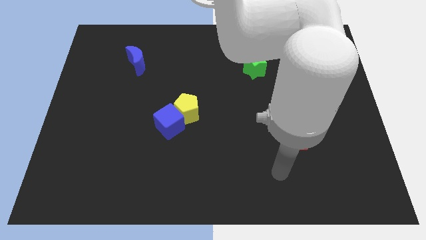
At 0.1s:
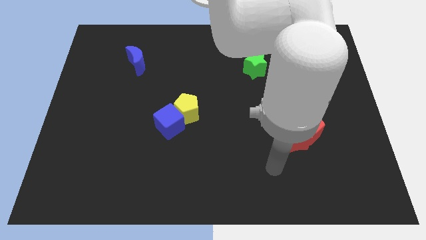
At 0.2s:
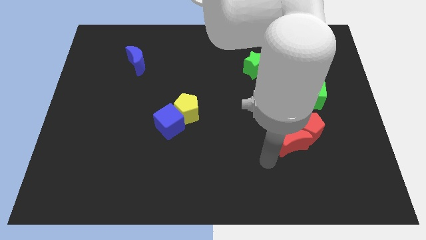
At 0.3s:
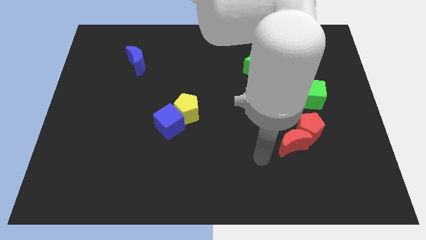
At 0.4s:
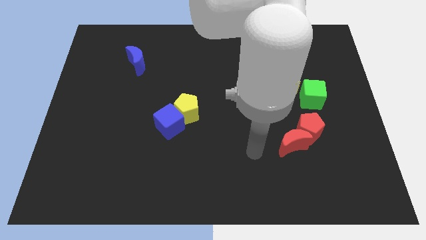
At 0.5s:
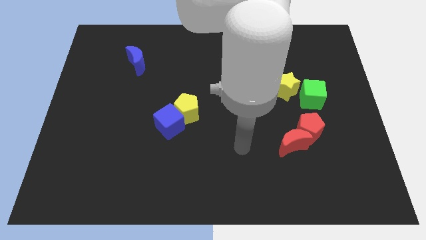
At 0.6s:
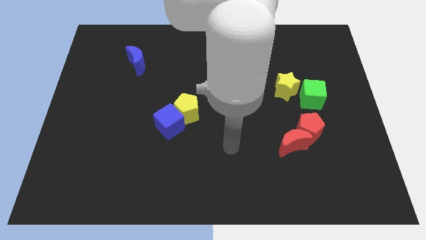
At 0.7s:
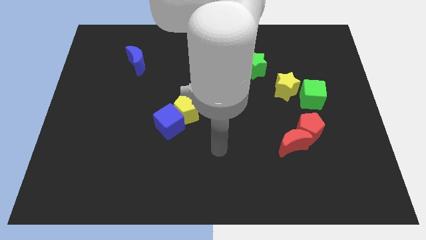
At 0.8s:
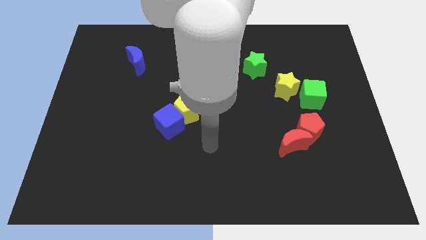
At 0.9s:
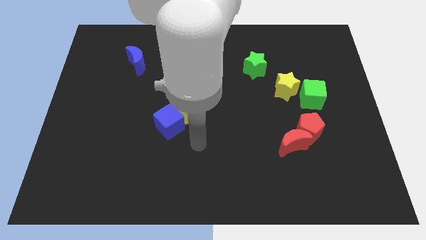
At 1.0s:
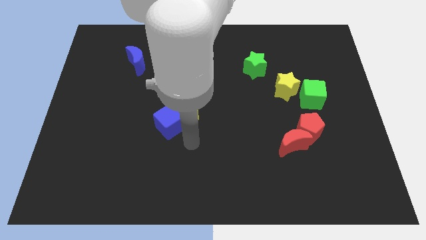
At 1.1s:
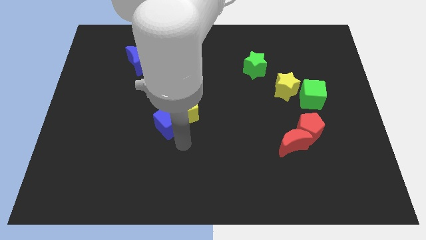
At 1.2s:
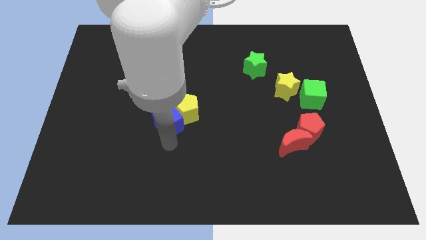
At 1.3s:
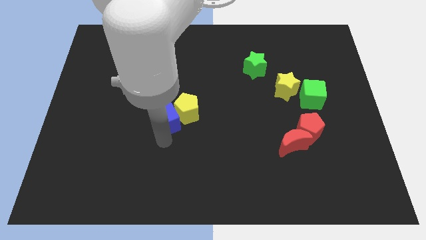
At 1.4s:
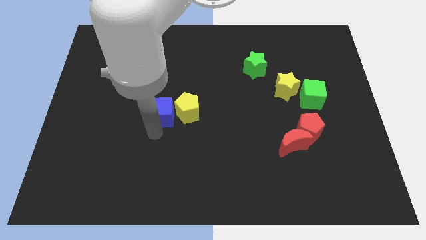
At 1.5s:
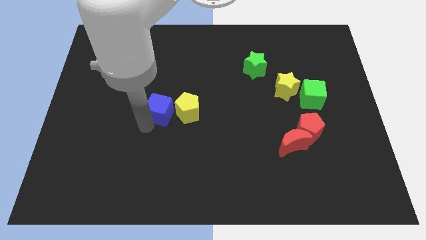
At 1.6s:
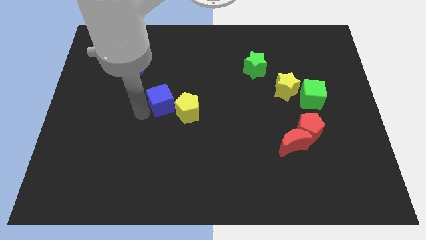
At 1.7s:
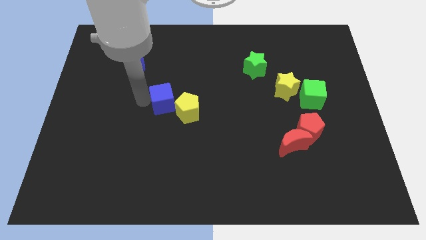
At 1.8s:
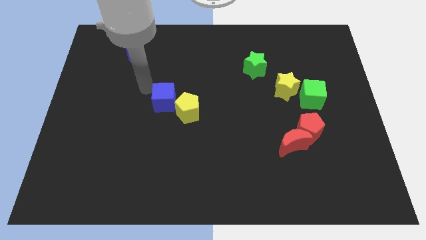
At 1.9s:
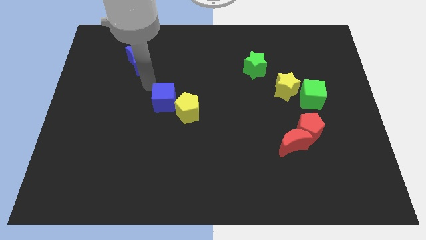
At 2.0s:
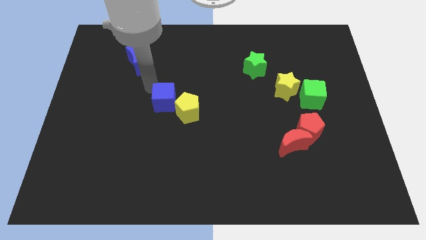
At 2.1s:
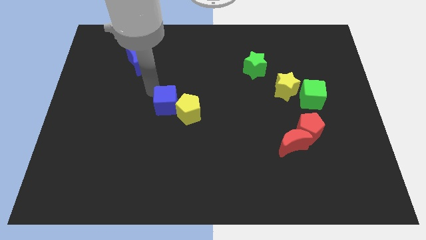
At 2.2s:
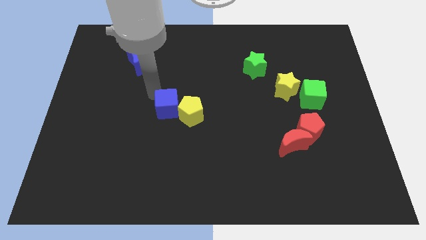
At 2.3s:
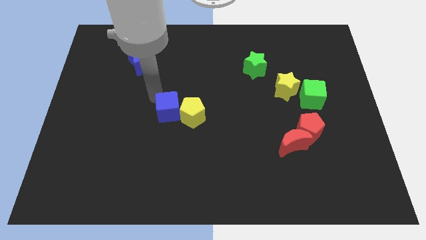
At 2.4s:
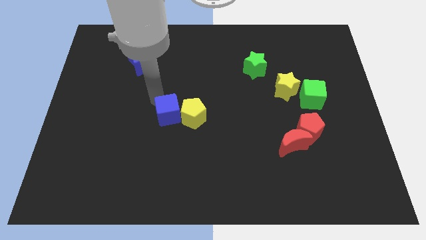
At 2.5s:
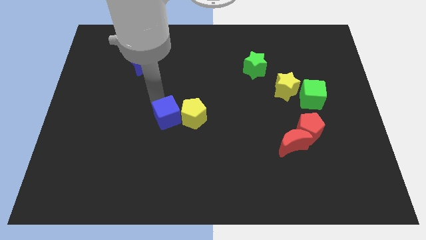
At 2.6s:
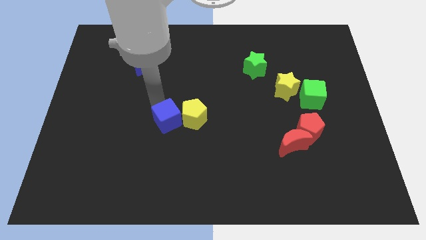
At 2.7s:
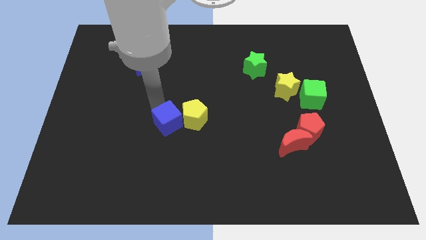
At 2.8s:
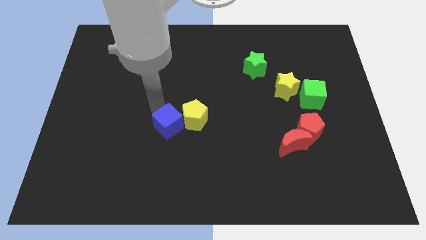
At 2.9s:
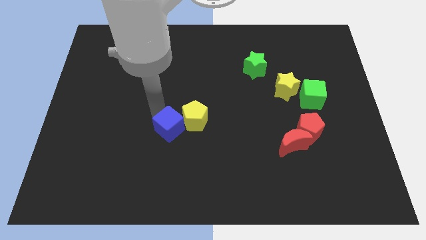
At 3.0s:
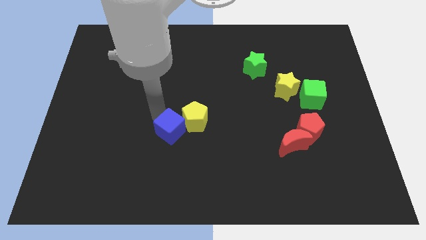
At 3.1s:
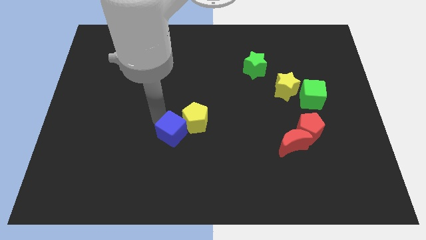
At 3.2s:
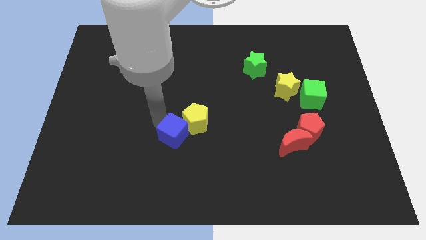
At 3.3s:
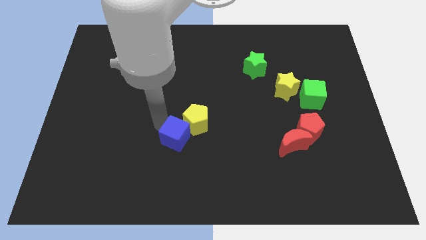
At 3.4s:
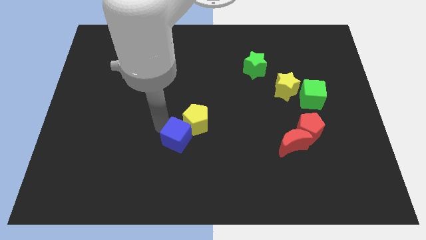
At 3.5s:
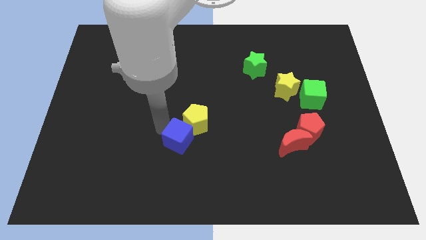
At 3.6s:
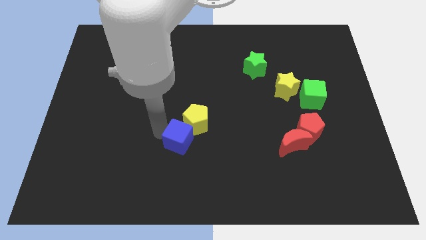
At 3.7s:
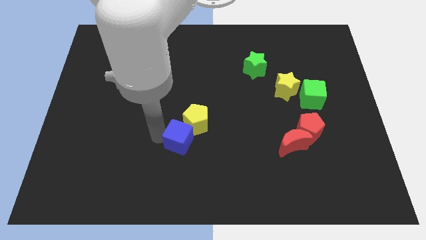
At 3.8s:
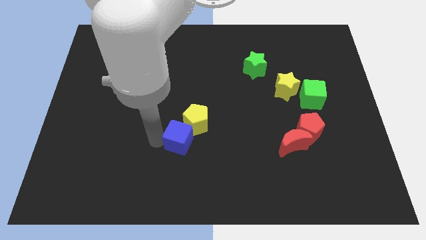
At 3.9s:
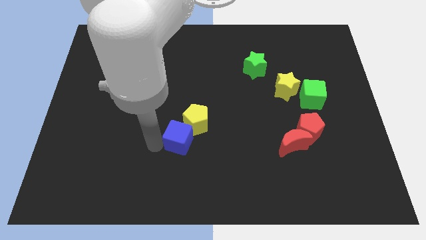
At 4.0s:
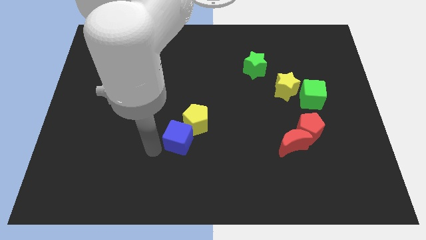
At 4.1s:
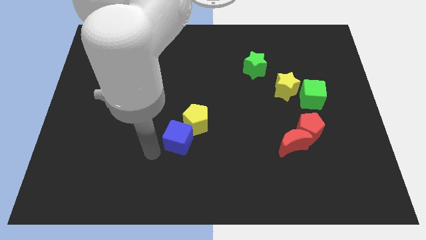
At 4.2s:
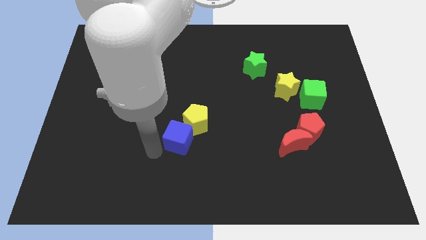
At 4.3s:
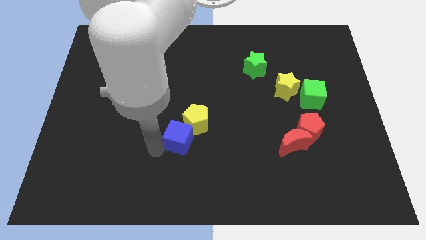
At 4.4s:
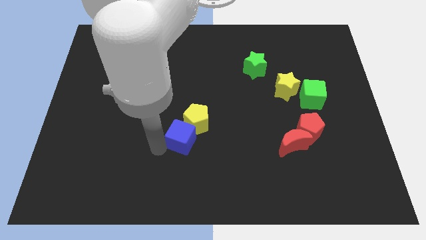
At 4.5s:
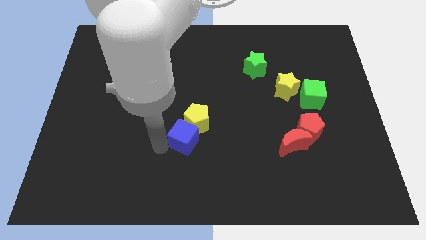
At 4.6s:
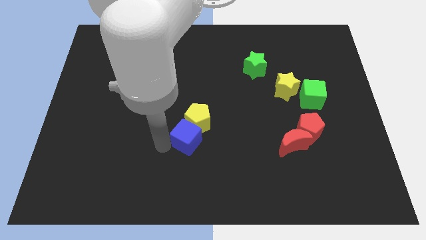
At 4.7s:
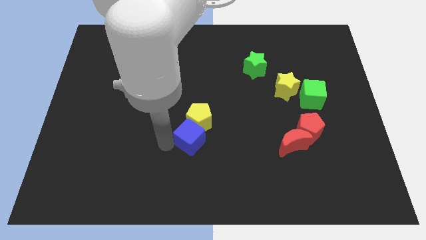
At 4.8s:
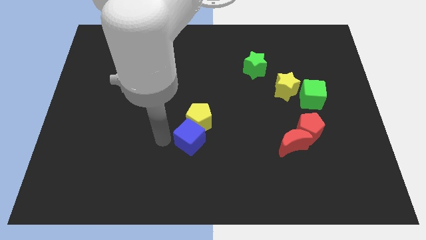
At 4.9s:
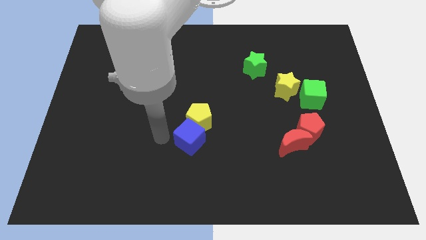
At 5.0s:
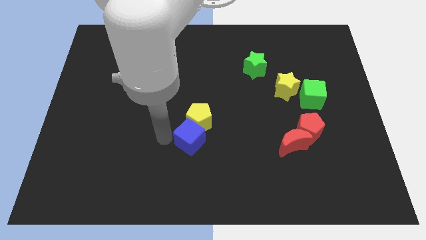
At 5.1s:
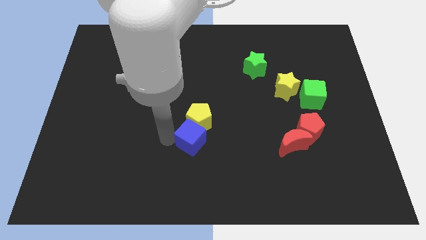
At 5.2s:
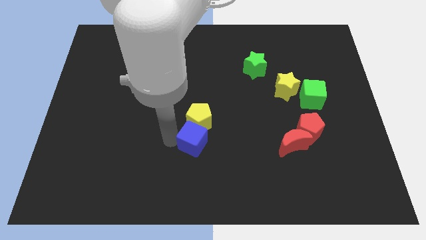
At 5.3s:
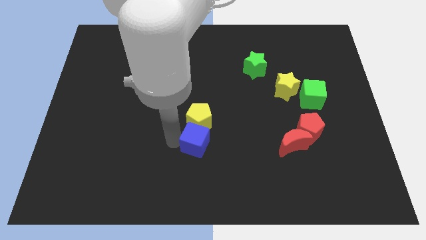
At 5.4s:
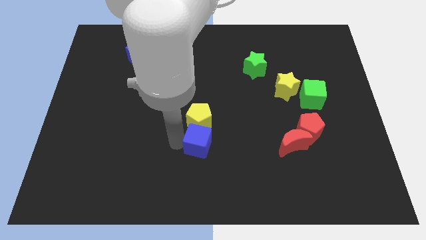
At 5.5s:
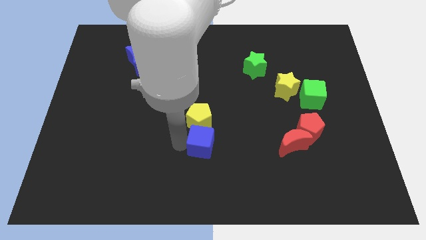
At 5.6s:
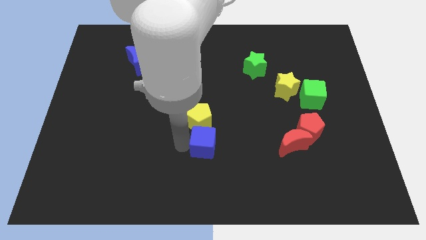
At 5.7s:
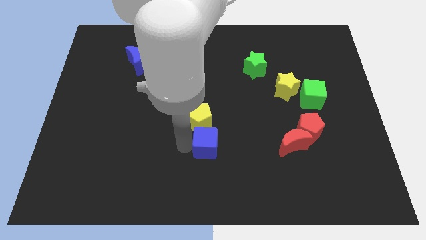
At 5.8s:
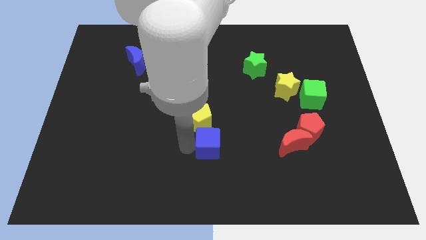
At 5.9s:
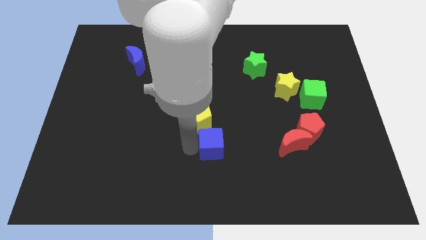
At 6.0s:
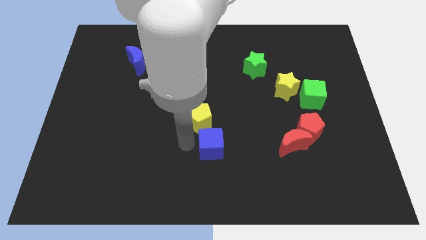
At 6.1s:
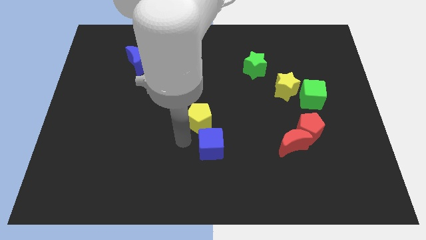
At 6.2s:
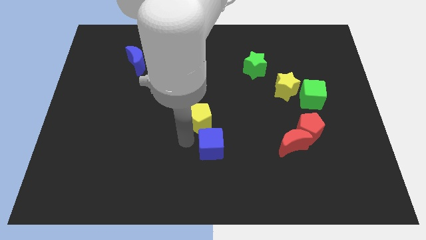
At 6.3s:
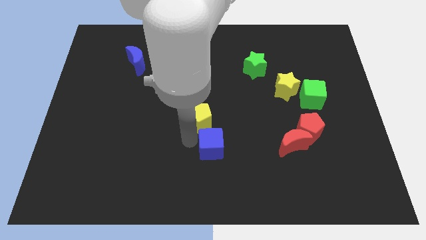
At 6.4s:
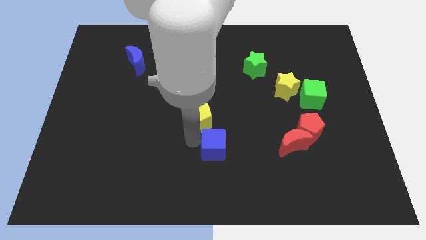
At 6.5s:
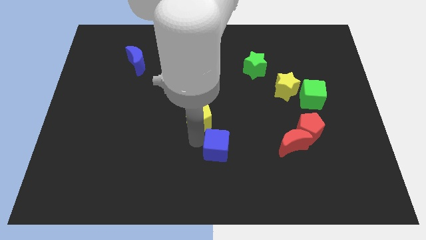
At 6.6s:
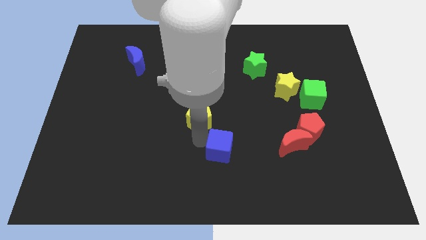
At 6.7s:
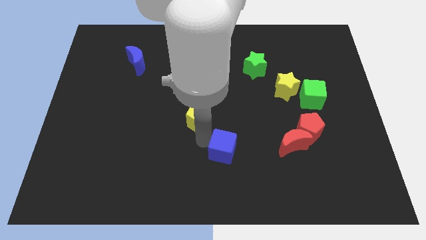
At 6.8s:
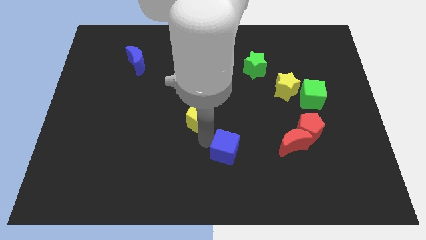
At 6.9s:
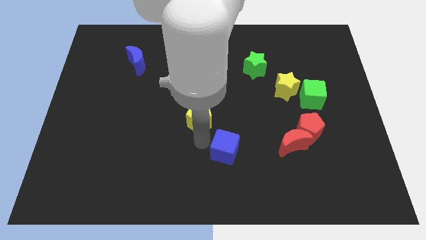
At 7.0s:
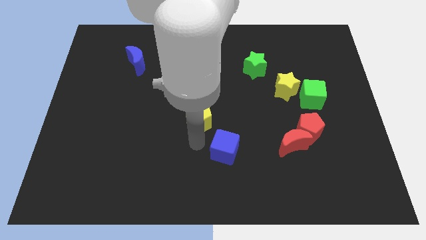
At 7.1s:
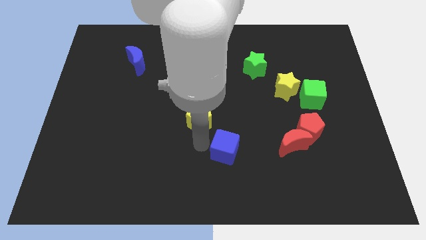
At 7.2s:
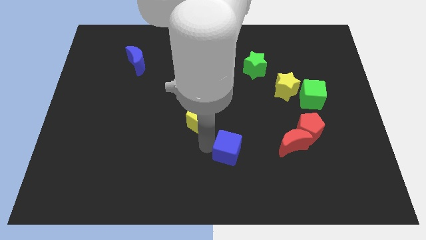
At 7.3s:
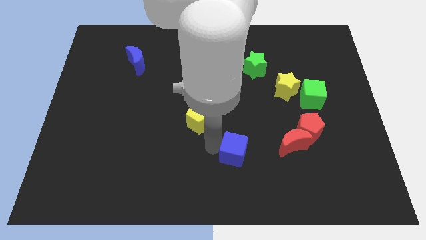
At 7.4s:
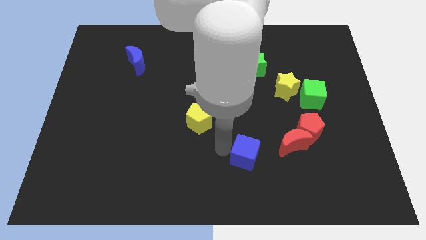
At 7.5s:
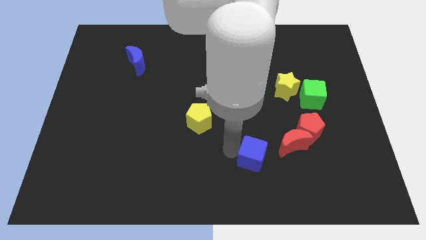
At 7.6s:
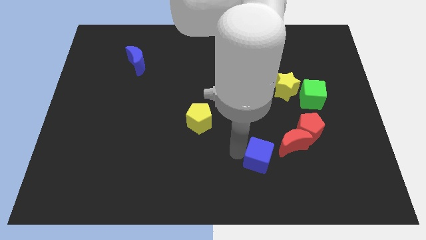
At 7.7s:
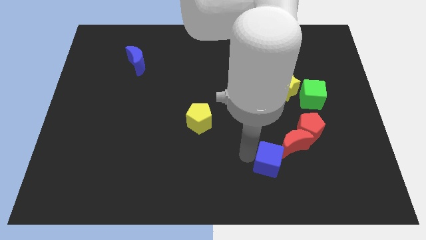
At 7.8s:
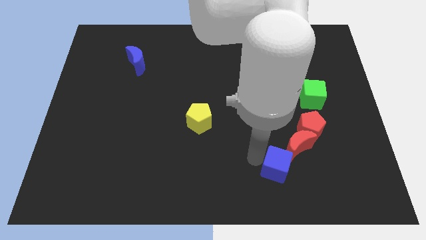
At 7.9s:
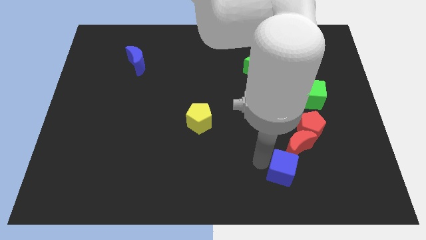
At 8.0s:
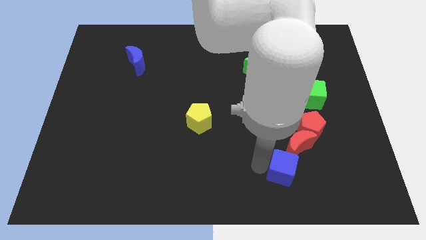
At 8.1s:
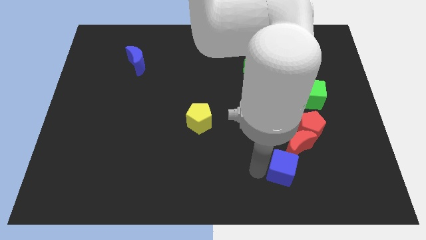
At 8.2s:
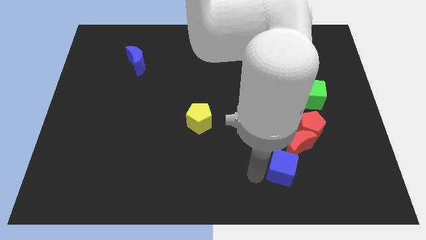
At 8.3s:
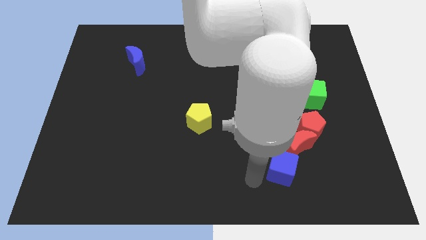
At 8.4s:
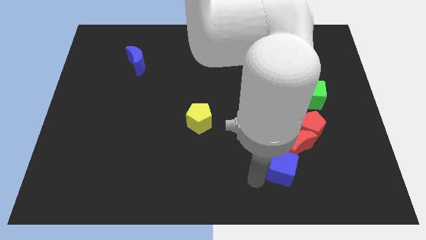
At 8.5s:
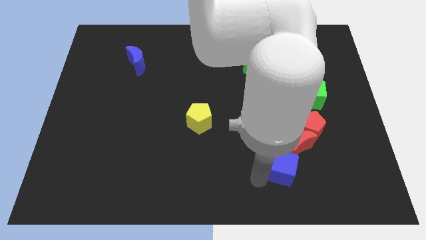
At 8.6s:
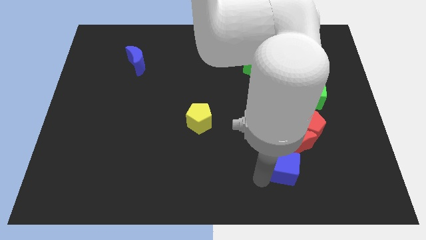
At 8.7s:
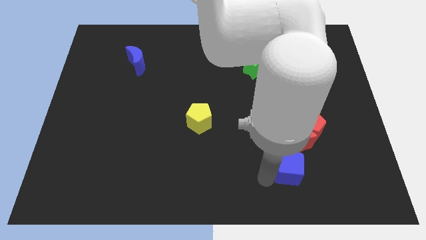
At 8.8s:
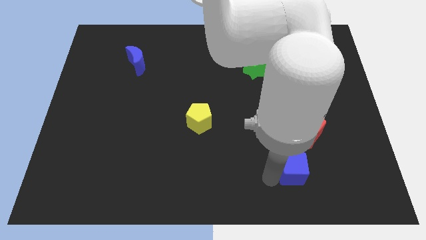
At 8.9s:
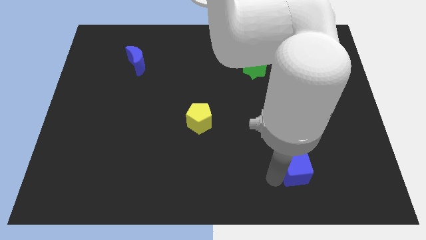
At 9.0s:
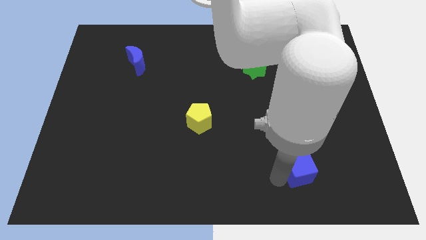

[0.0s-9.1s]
move the blue cube to the bottom right side of the red moon
